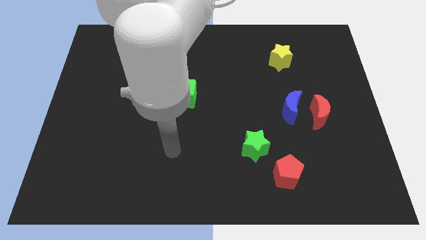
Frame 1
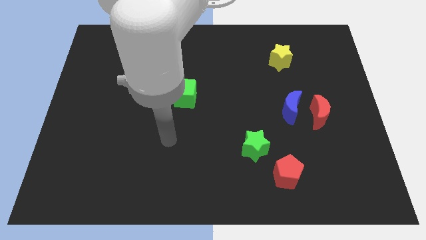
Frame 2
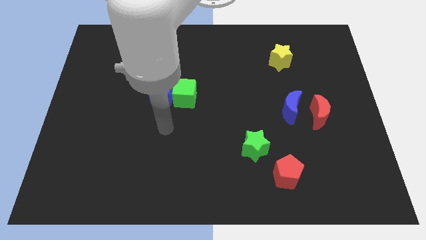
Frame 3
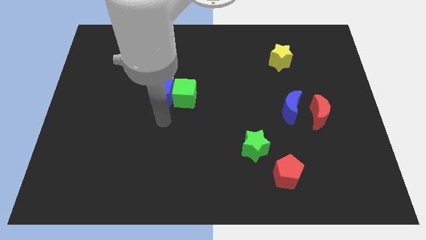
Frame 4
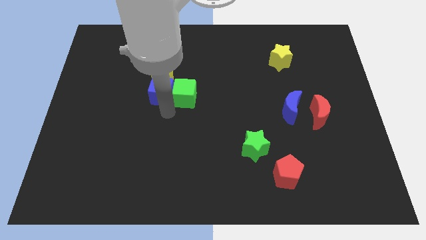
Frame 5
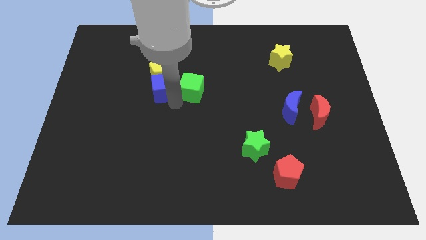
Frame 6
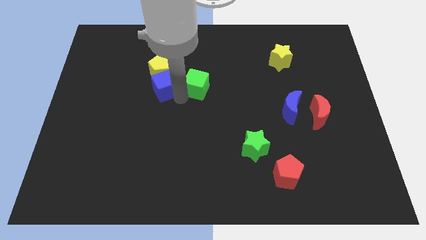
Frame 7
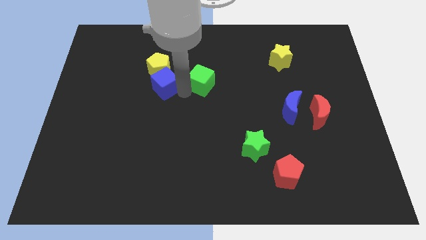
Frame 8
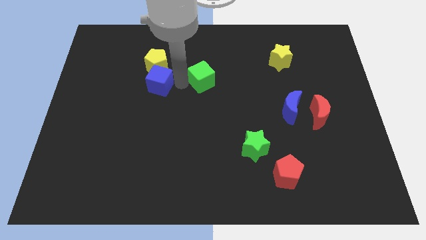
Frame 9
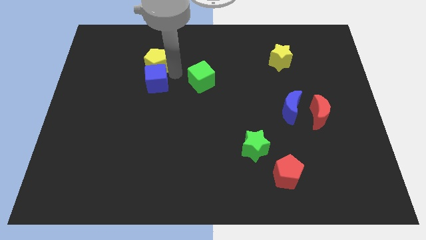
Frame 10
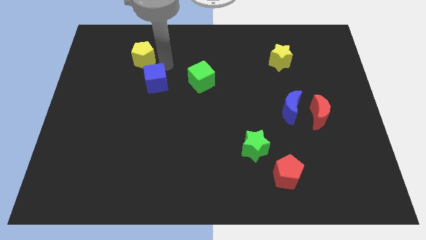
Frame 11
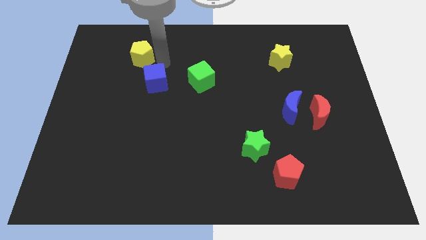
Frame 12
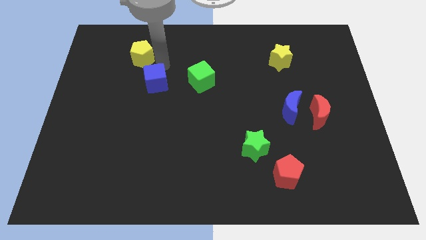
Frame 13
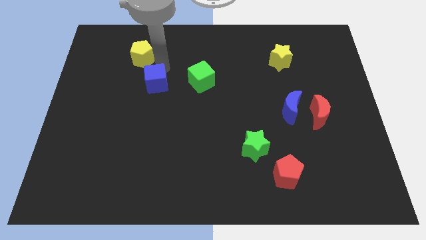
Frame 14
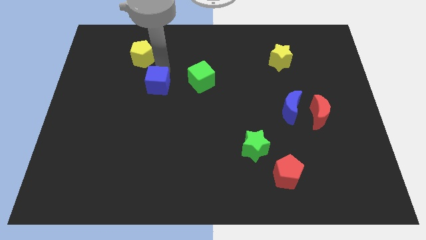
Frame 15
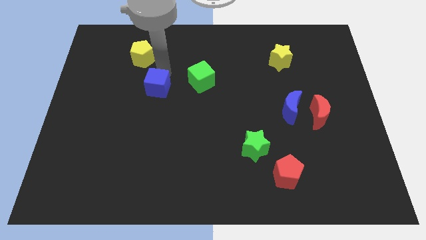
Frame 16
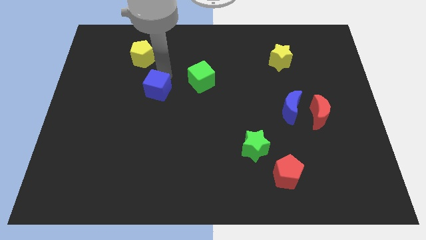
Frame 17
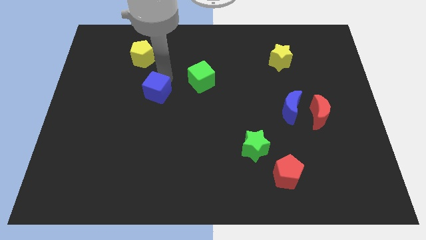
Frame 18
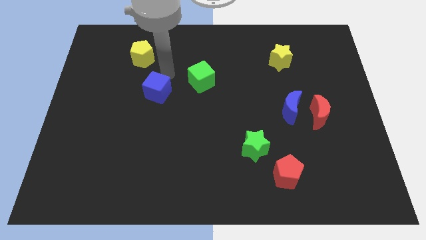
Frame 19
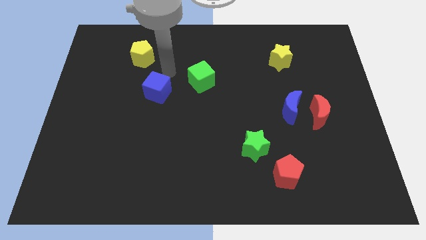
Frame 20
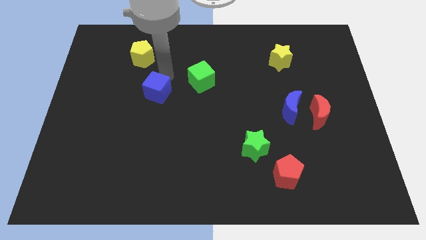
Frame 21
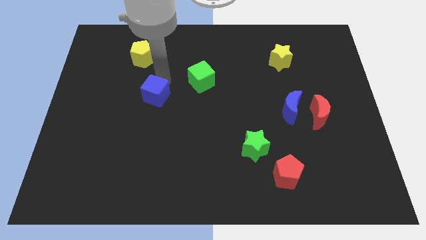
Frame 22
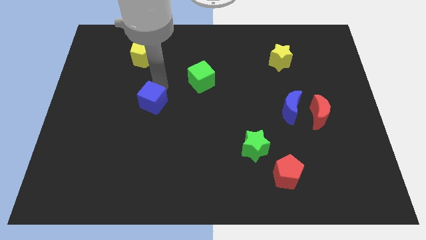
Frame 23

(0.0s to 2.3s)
move the blue cube away from the green cube and yellow pentagon

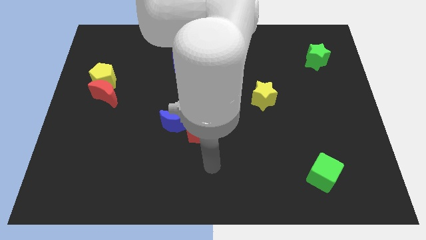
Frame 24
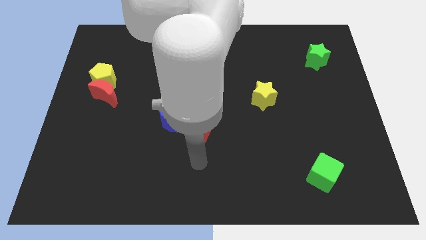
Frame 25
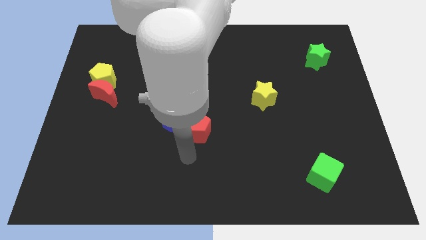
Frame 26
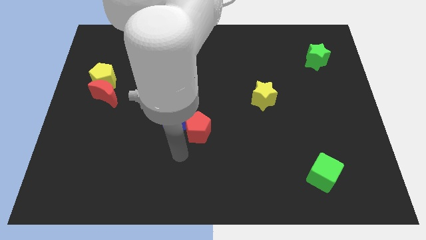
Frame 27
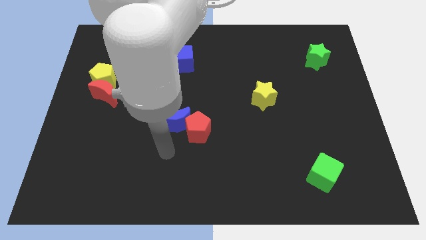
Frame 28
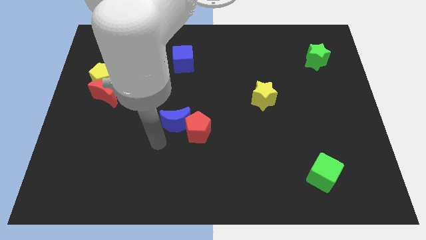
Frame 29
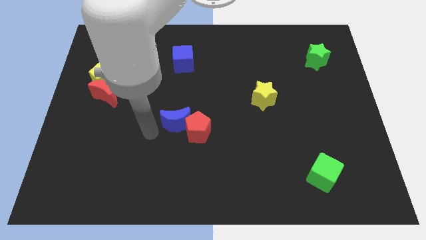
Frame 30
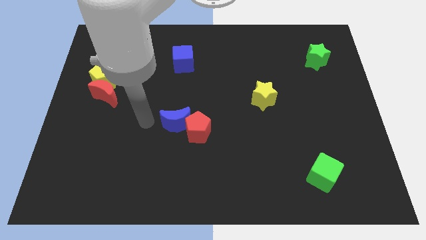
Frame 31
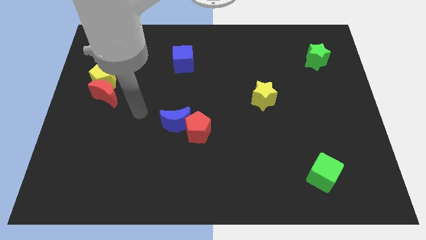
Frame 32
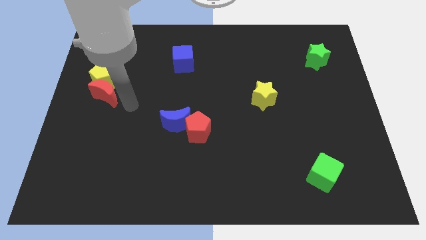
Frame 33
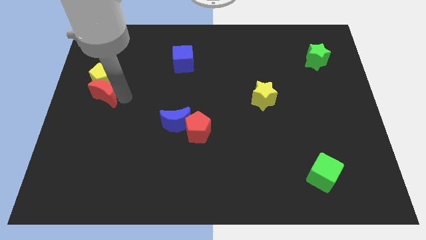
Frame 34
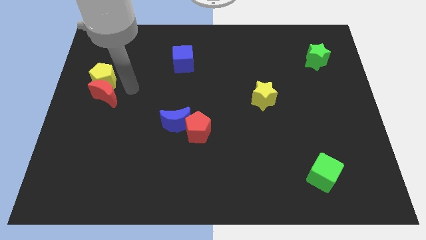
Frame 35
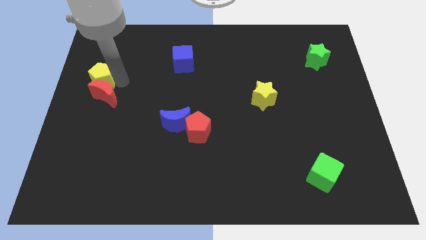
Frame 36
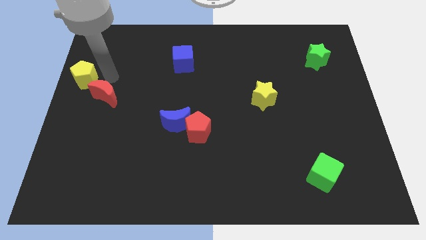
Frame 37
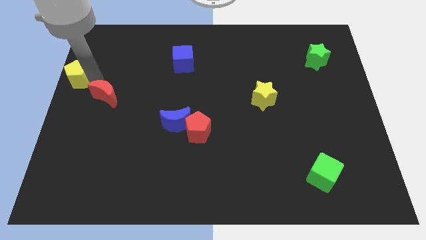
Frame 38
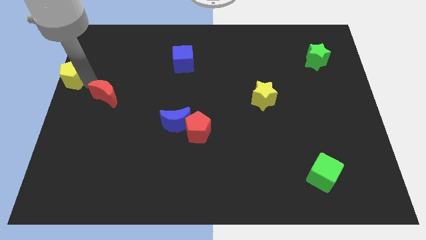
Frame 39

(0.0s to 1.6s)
move the red moon away from the yellow pentagon

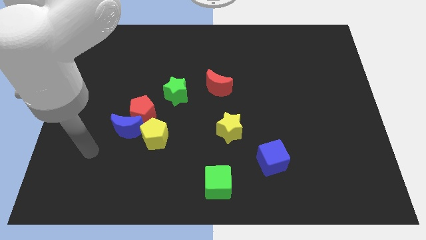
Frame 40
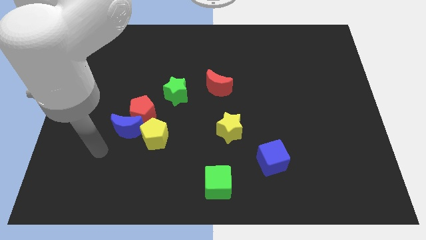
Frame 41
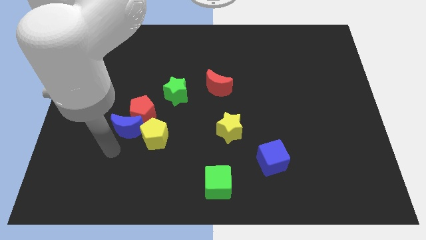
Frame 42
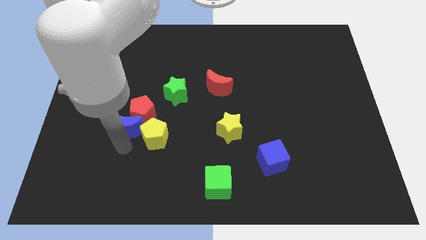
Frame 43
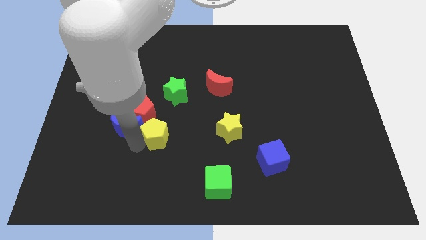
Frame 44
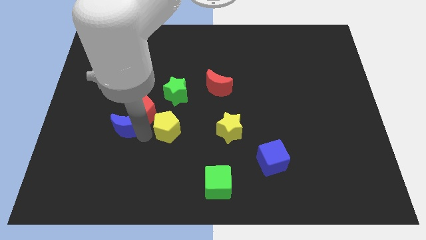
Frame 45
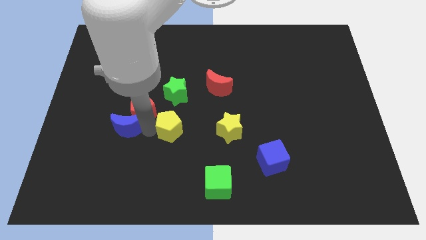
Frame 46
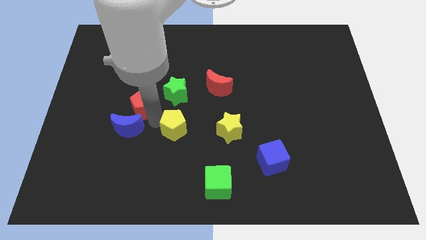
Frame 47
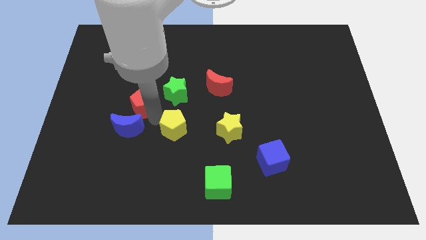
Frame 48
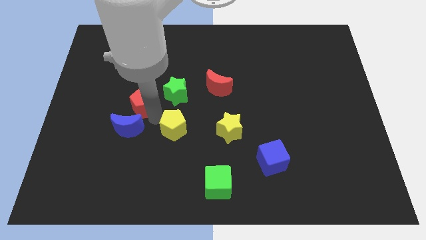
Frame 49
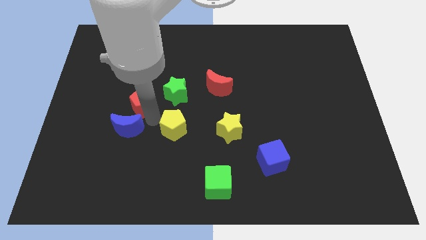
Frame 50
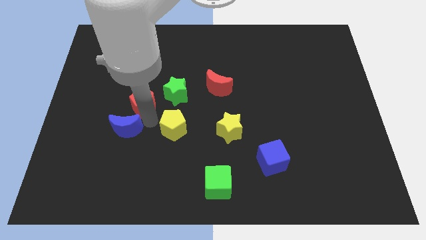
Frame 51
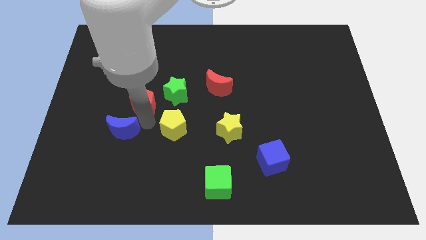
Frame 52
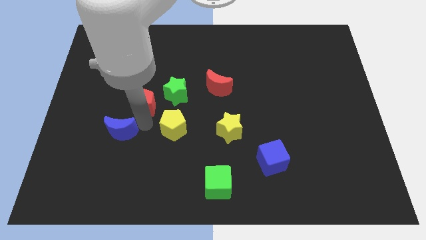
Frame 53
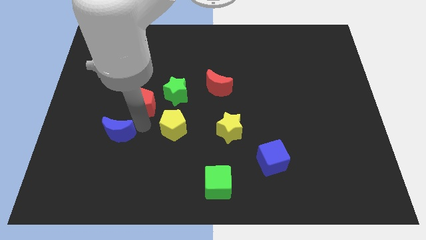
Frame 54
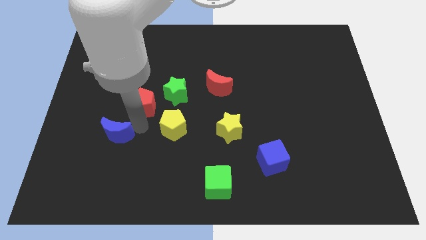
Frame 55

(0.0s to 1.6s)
pull the blue moon apart from the red pentagon and yellow pentagon

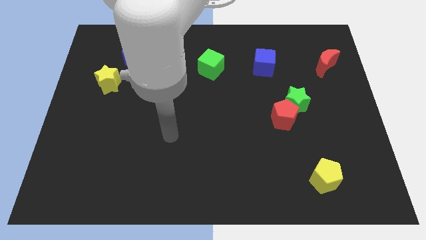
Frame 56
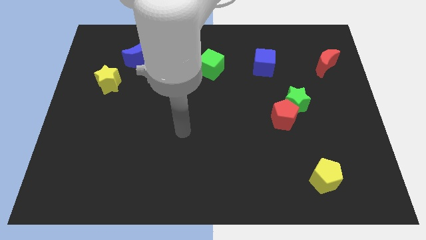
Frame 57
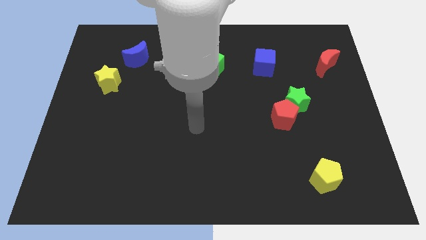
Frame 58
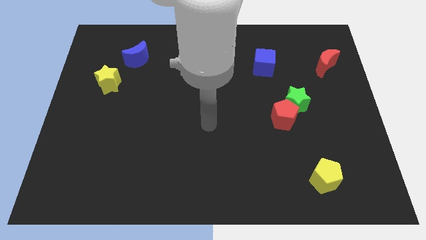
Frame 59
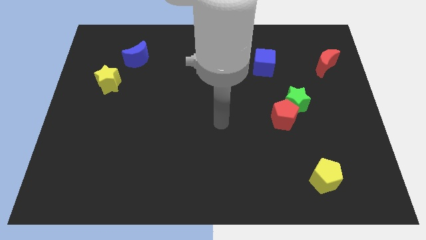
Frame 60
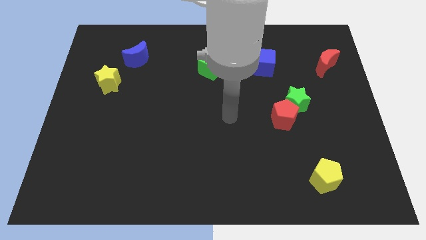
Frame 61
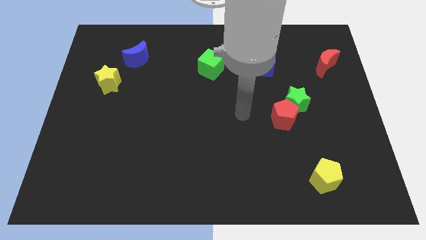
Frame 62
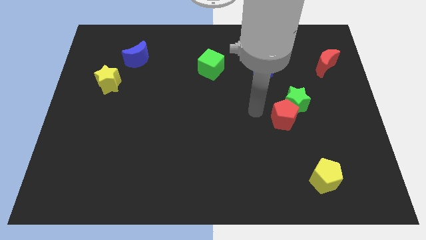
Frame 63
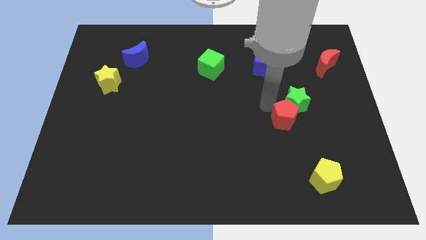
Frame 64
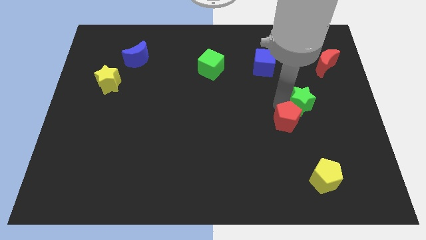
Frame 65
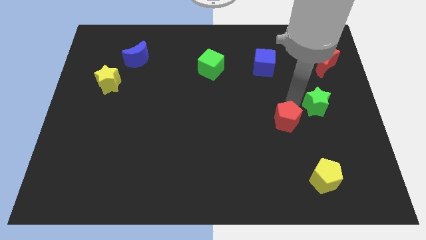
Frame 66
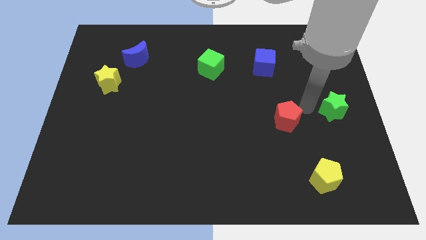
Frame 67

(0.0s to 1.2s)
separate the red pentagon from the green star

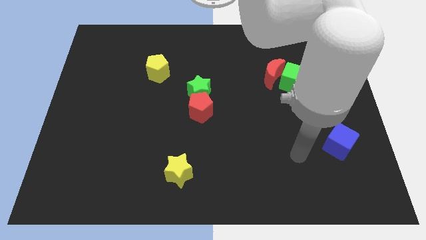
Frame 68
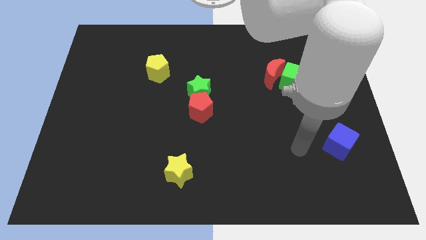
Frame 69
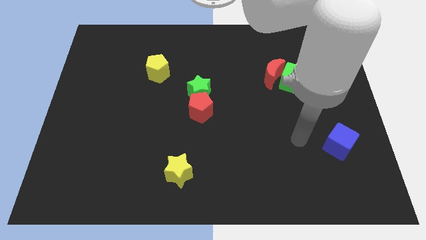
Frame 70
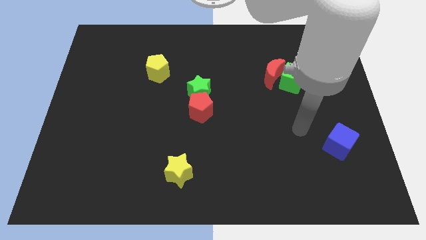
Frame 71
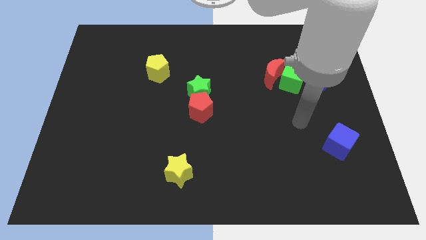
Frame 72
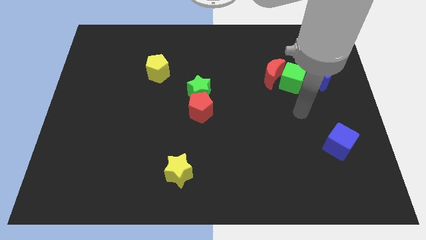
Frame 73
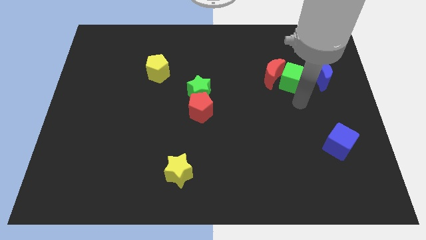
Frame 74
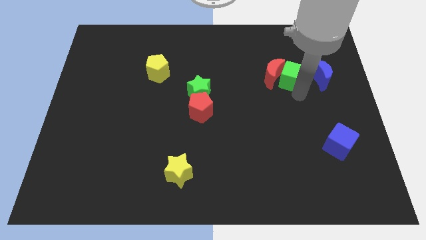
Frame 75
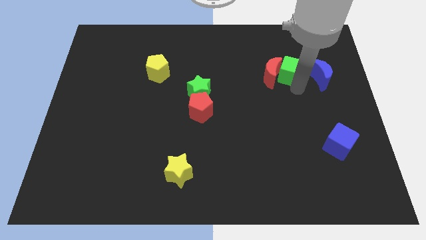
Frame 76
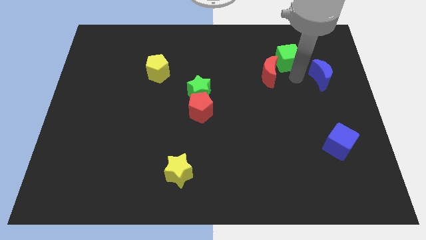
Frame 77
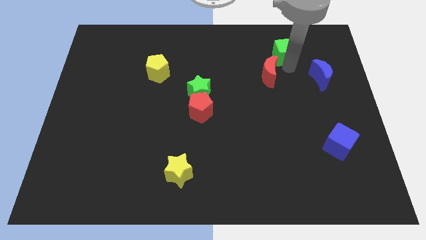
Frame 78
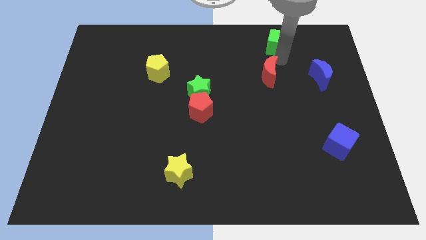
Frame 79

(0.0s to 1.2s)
separate the red moon from the green cube

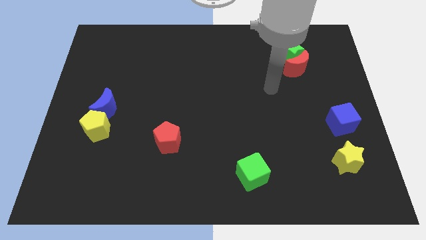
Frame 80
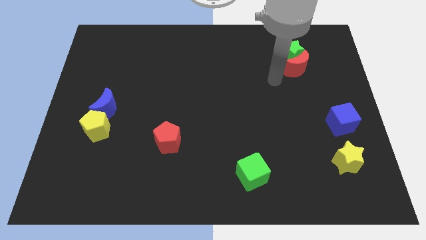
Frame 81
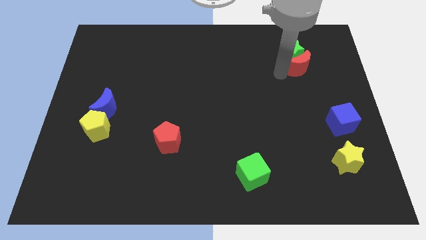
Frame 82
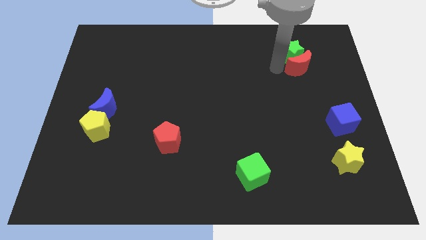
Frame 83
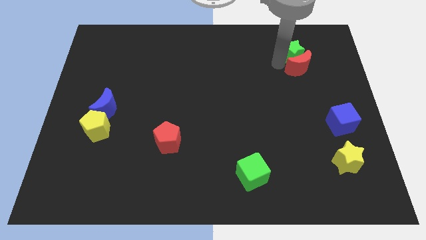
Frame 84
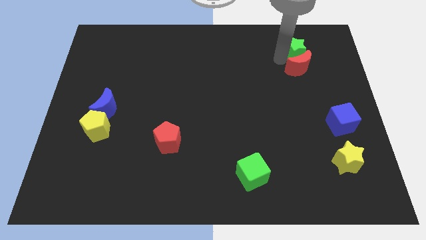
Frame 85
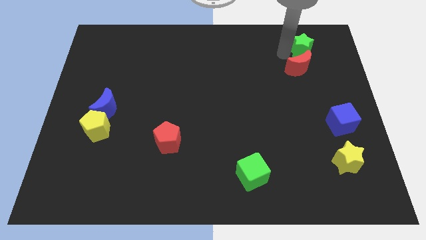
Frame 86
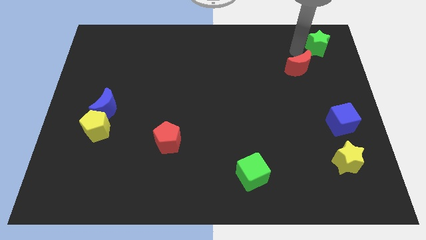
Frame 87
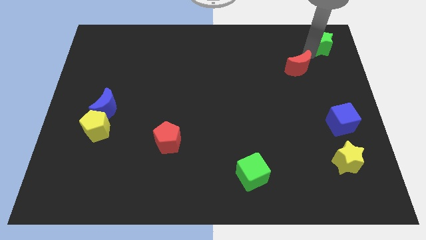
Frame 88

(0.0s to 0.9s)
pull the red moon apart from the green star

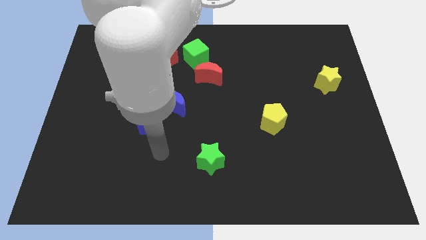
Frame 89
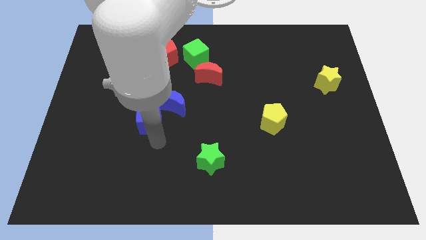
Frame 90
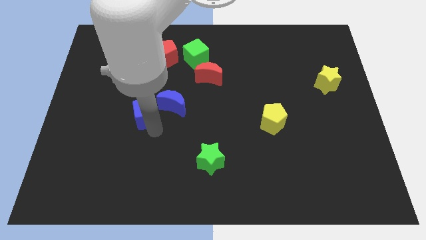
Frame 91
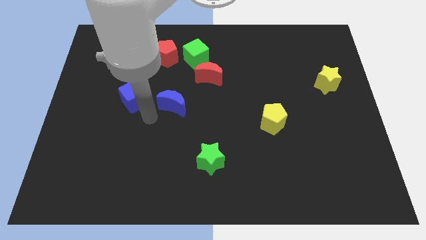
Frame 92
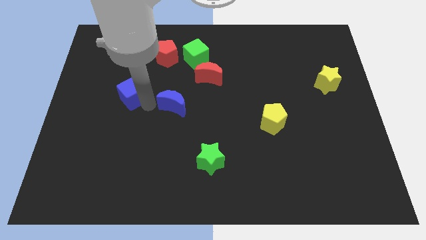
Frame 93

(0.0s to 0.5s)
move the blue moon away from the blue cube
